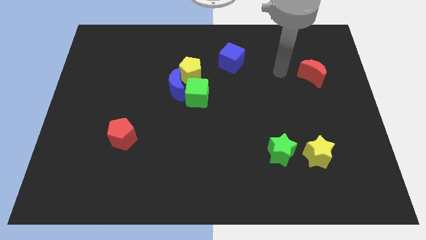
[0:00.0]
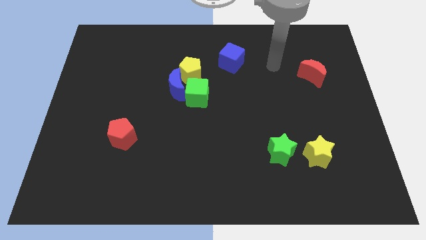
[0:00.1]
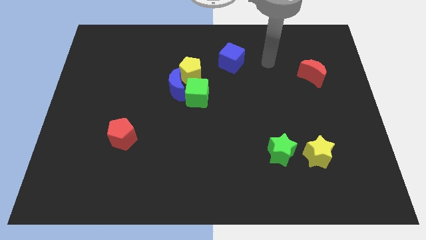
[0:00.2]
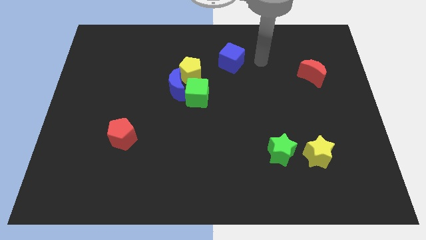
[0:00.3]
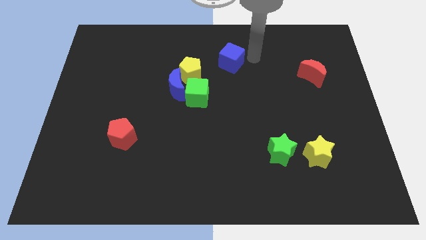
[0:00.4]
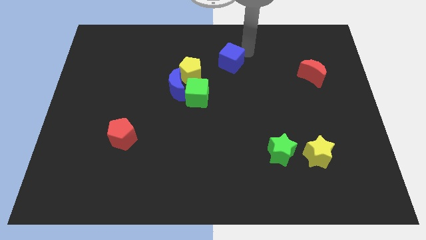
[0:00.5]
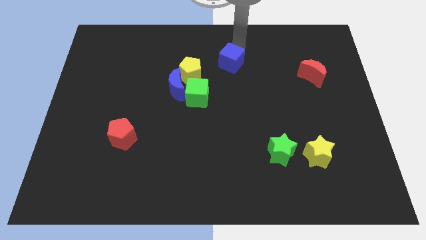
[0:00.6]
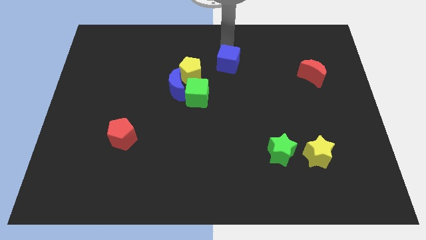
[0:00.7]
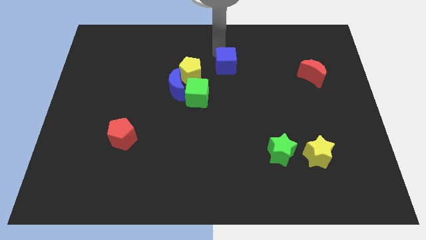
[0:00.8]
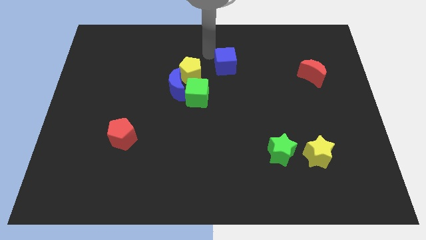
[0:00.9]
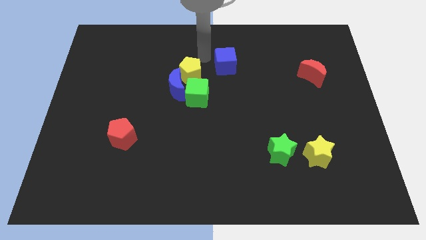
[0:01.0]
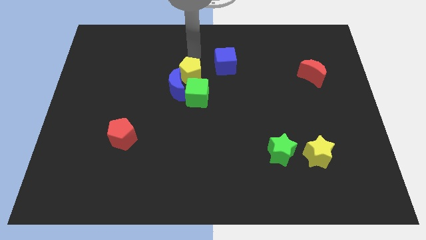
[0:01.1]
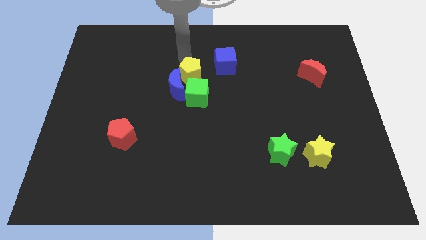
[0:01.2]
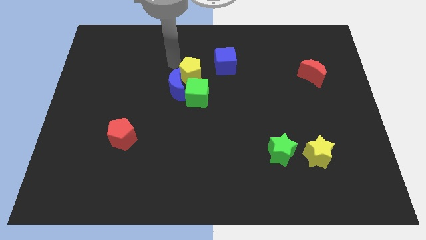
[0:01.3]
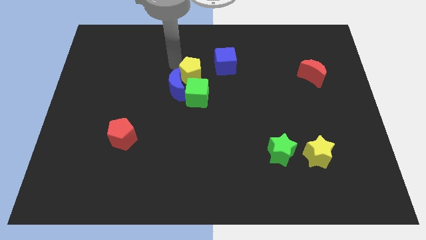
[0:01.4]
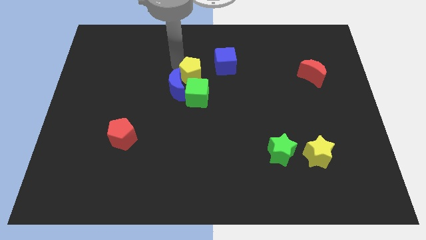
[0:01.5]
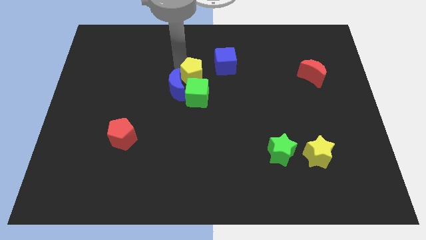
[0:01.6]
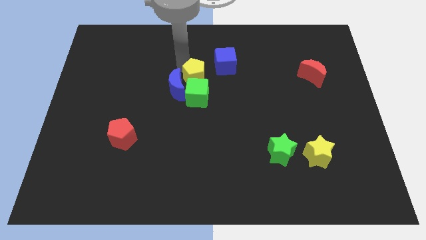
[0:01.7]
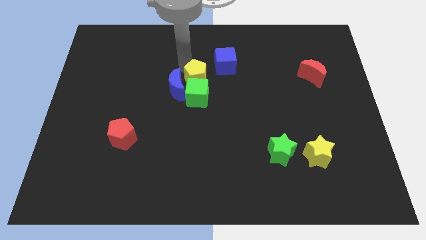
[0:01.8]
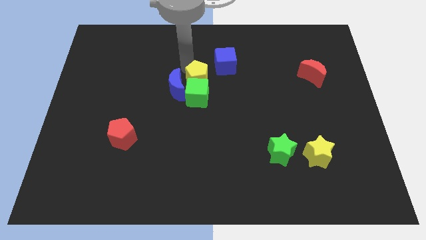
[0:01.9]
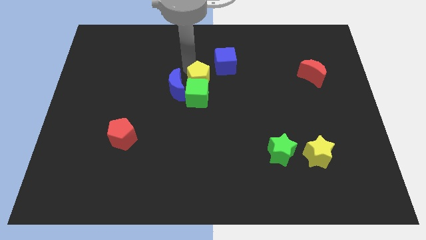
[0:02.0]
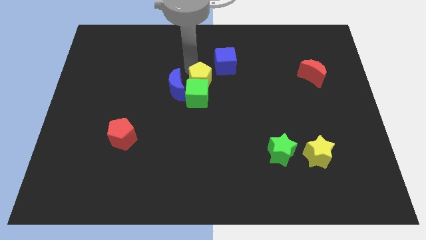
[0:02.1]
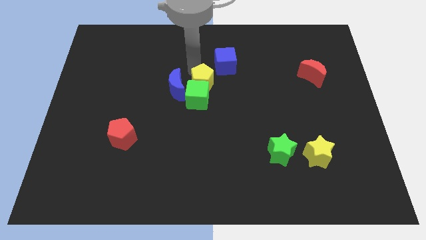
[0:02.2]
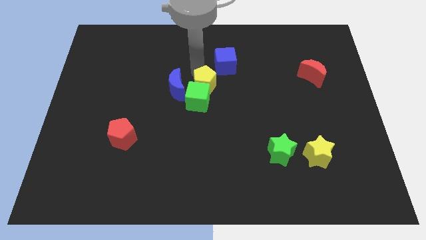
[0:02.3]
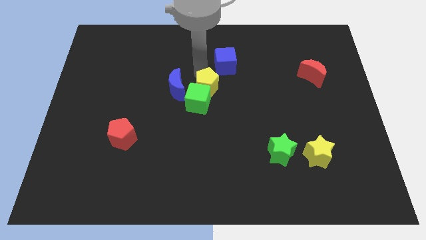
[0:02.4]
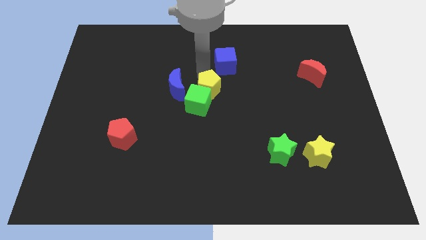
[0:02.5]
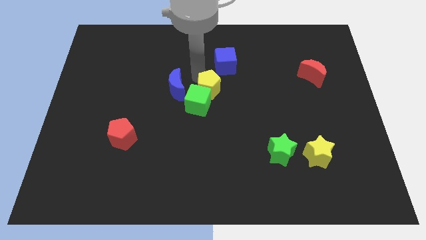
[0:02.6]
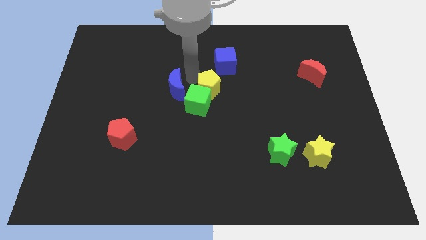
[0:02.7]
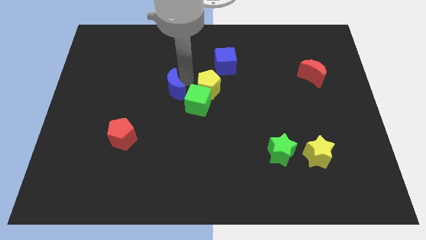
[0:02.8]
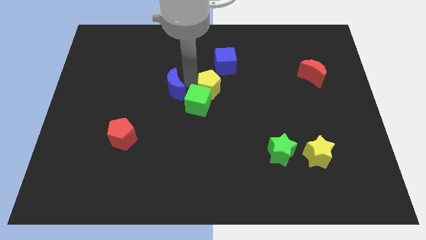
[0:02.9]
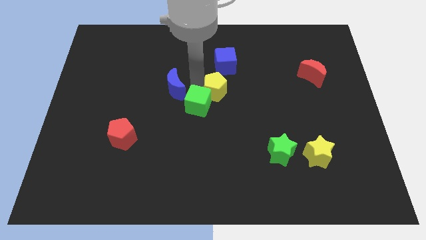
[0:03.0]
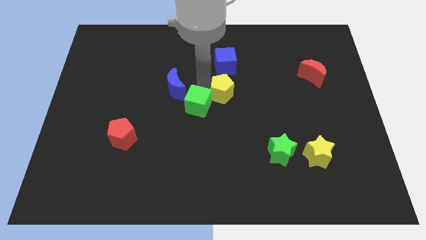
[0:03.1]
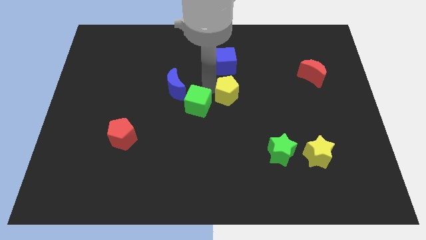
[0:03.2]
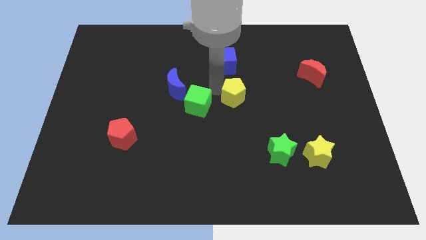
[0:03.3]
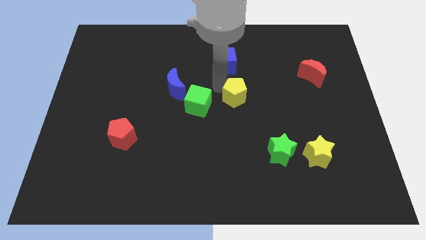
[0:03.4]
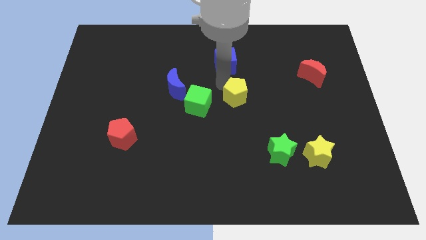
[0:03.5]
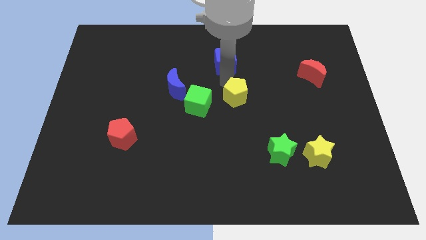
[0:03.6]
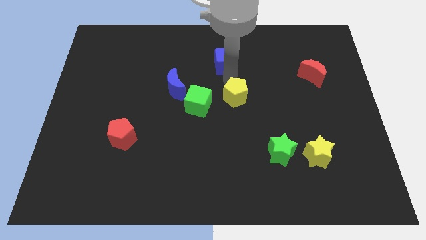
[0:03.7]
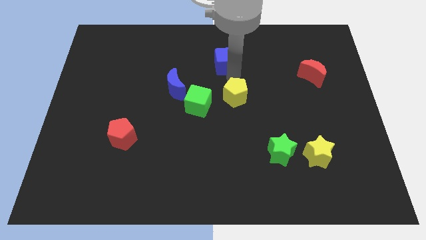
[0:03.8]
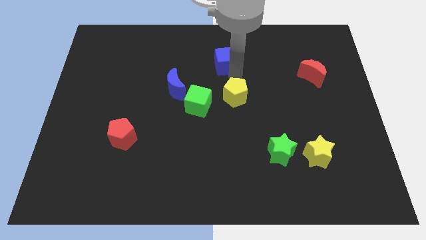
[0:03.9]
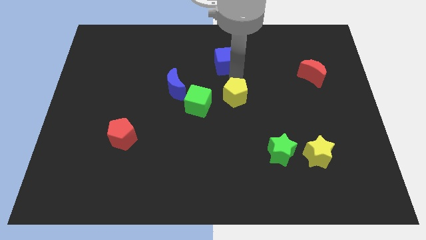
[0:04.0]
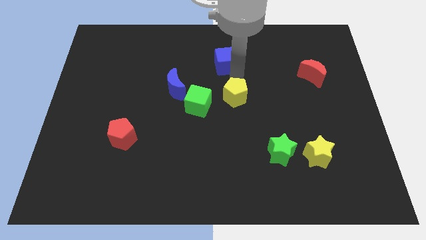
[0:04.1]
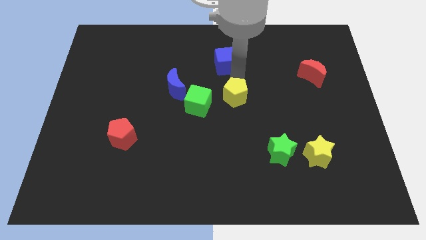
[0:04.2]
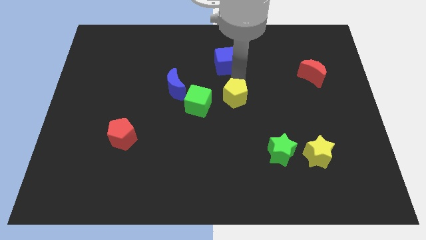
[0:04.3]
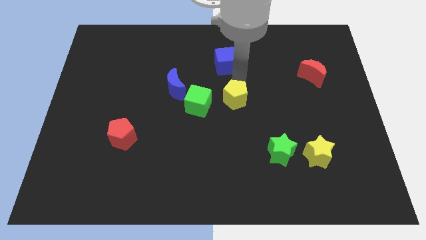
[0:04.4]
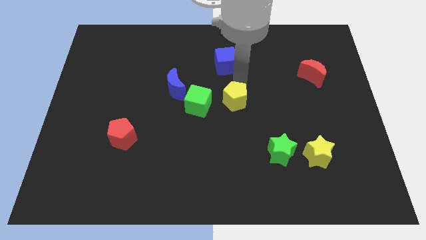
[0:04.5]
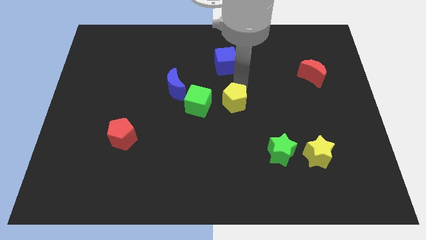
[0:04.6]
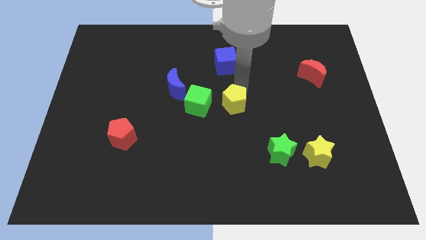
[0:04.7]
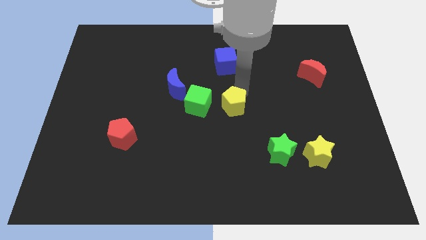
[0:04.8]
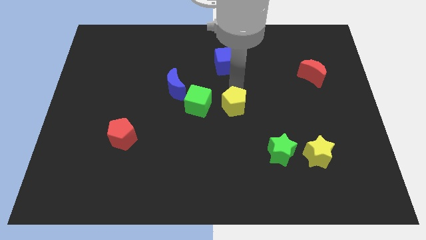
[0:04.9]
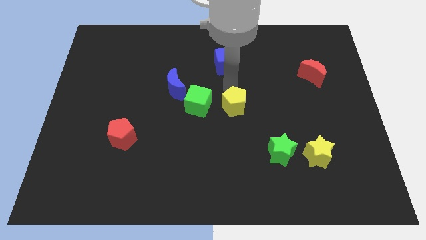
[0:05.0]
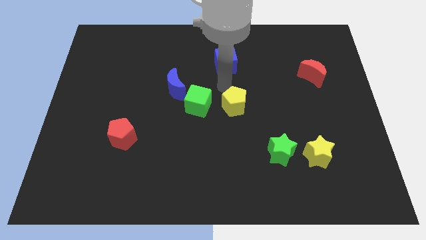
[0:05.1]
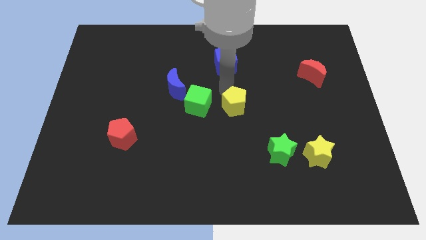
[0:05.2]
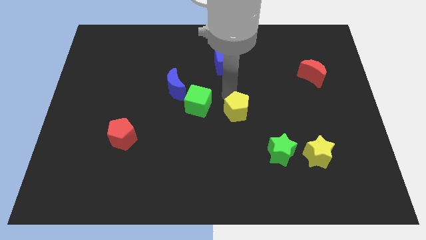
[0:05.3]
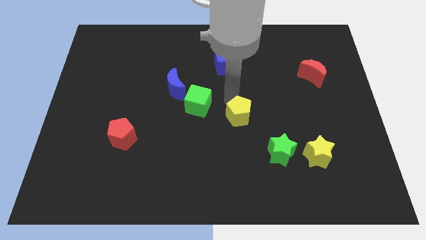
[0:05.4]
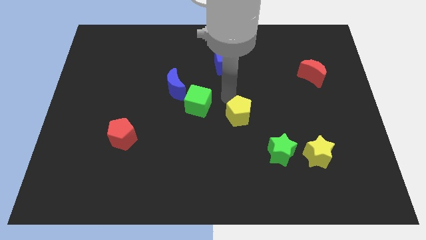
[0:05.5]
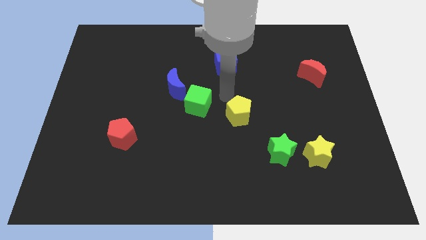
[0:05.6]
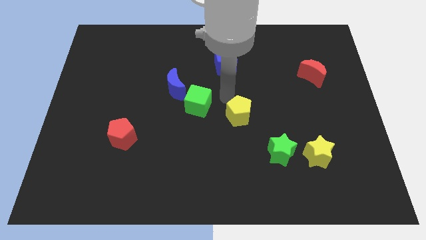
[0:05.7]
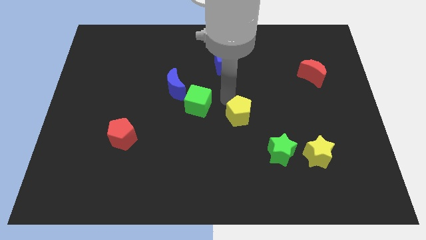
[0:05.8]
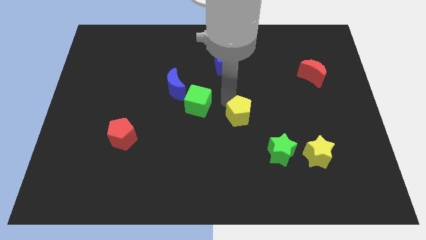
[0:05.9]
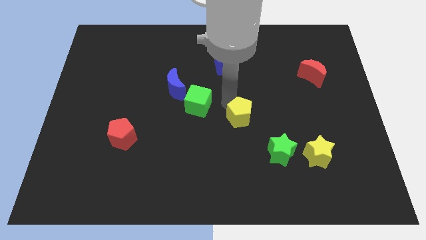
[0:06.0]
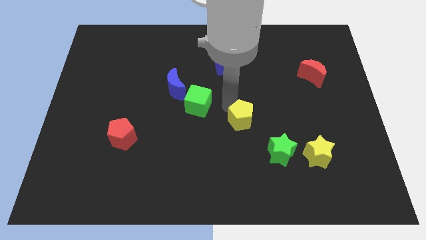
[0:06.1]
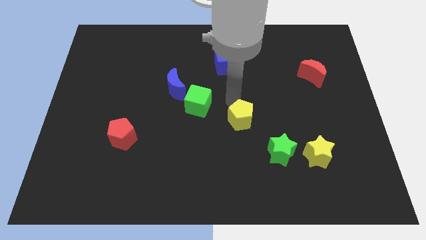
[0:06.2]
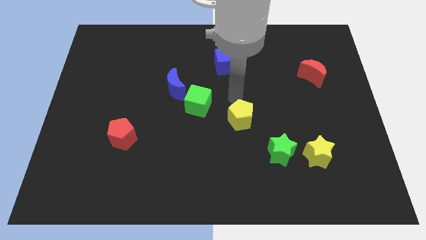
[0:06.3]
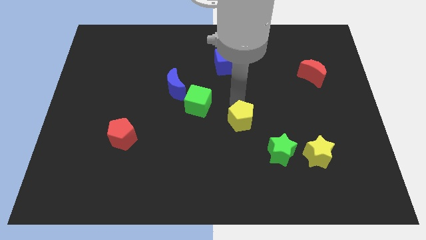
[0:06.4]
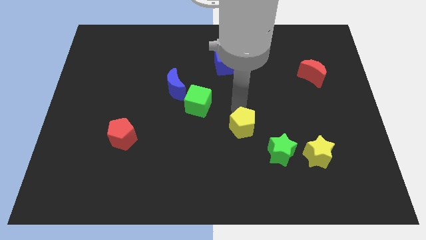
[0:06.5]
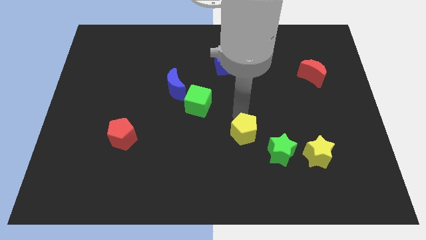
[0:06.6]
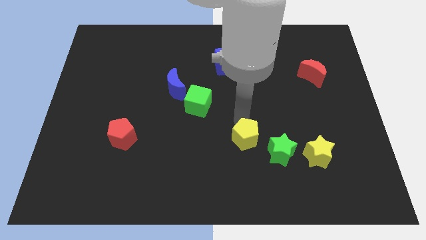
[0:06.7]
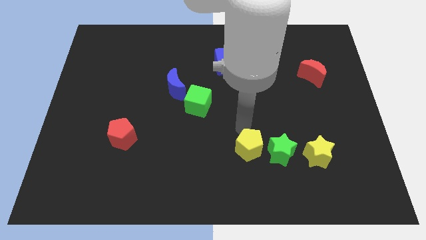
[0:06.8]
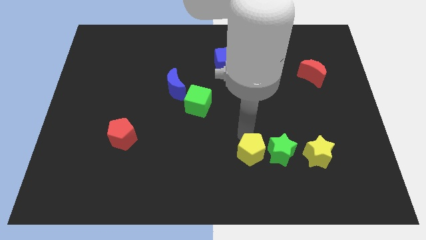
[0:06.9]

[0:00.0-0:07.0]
move the yellow pentagon to the bottom left of the green star
